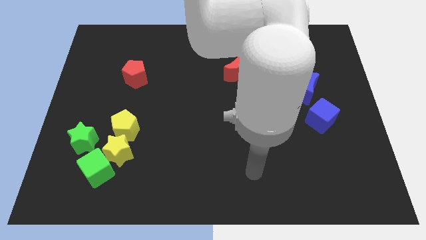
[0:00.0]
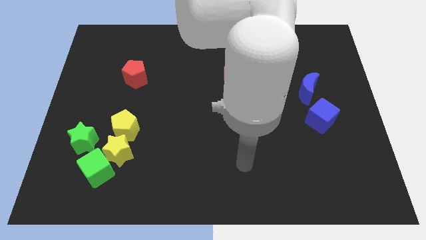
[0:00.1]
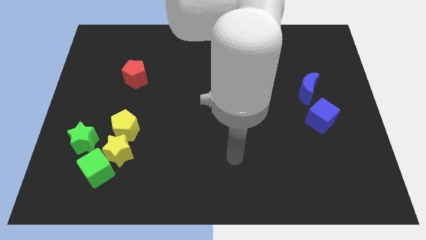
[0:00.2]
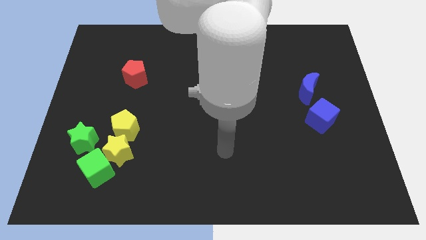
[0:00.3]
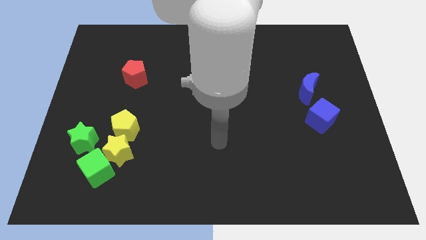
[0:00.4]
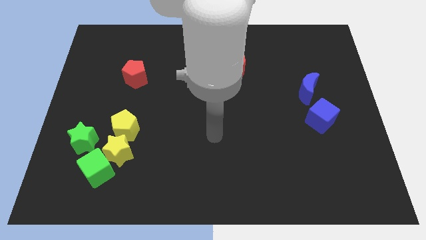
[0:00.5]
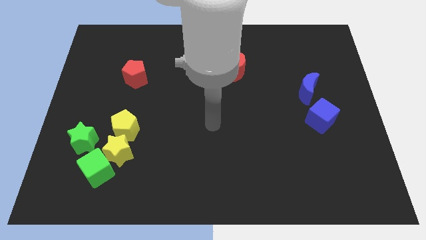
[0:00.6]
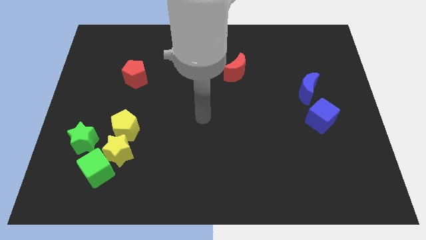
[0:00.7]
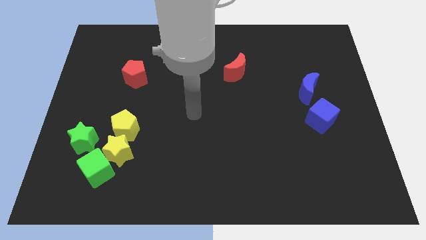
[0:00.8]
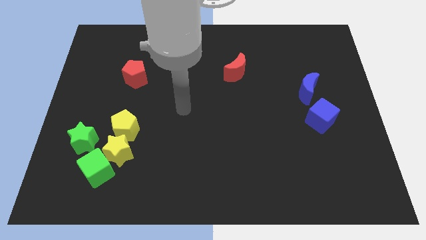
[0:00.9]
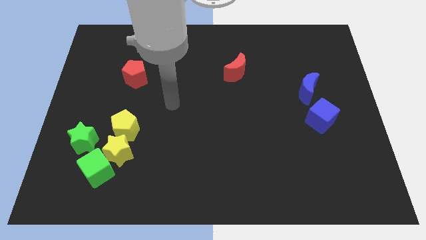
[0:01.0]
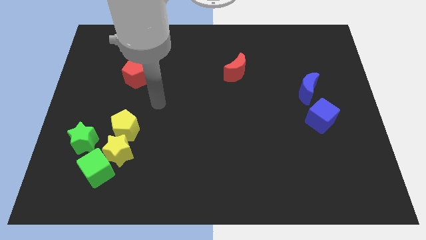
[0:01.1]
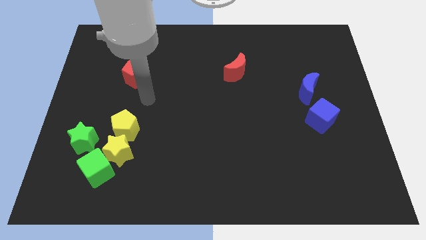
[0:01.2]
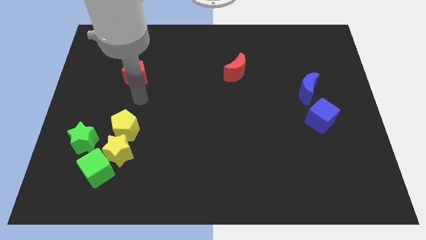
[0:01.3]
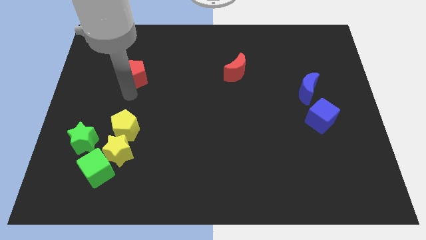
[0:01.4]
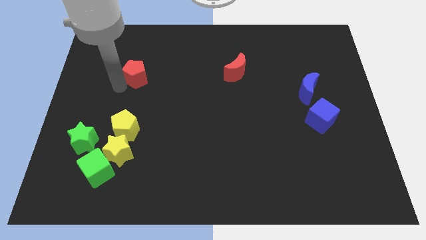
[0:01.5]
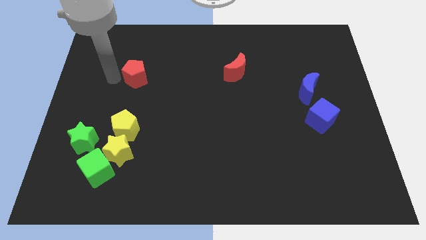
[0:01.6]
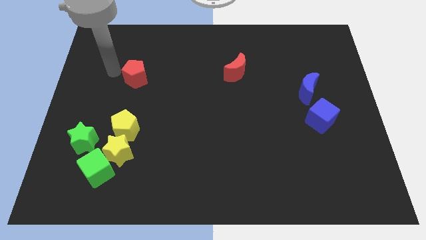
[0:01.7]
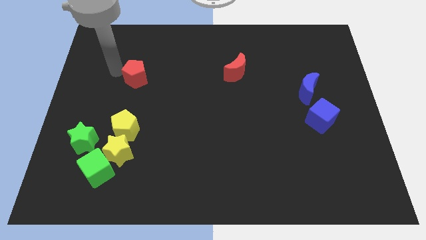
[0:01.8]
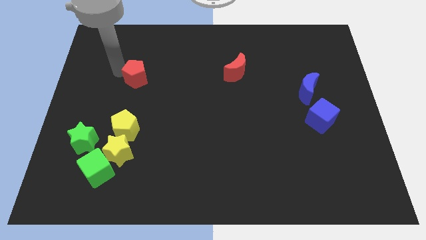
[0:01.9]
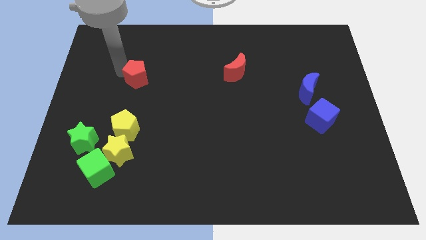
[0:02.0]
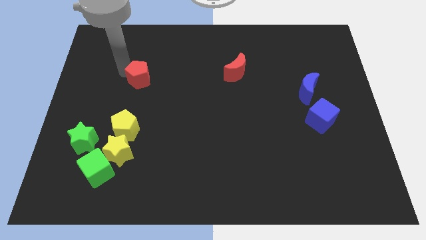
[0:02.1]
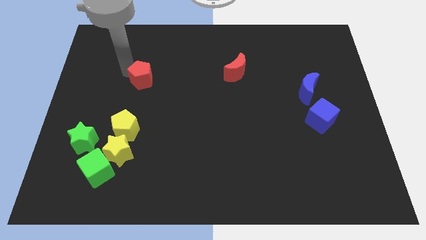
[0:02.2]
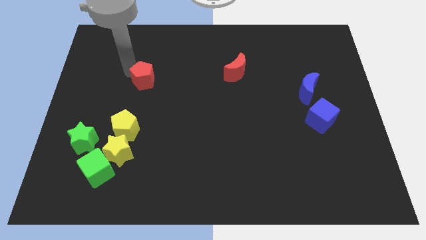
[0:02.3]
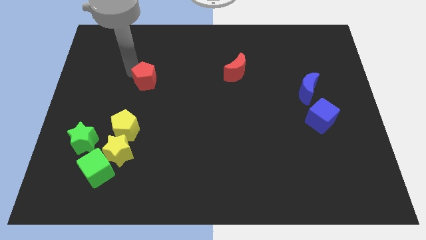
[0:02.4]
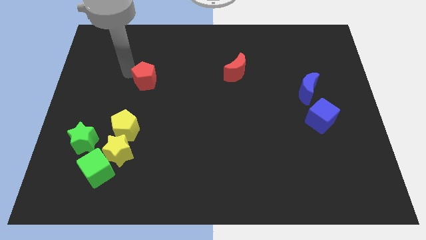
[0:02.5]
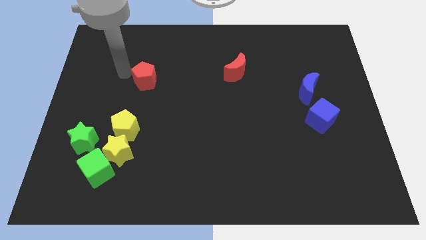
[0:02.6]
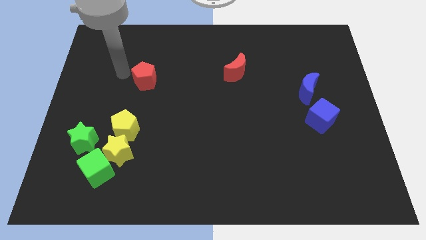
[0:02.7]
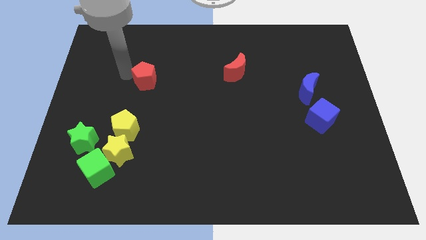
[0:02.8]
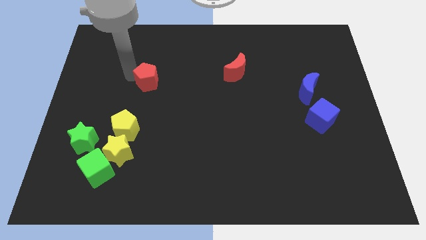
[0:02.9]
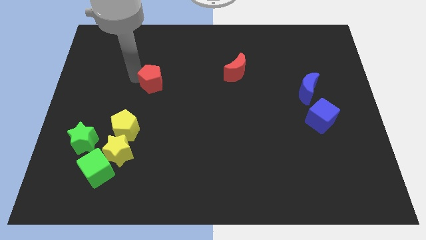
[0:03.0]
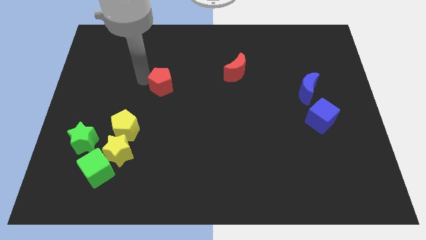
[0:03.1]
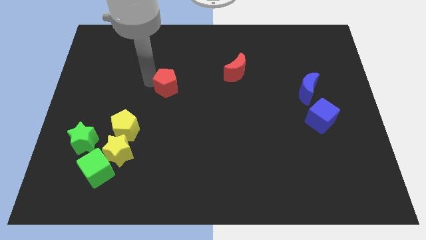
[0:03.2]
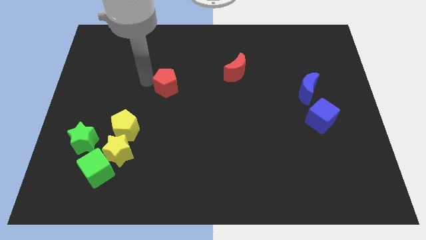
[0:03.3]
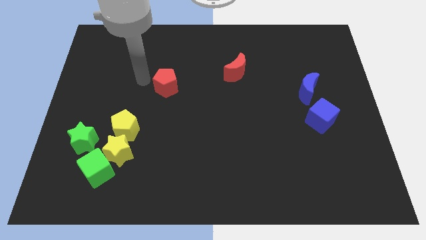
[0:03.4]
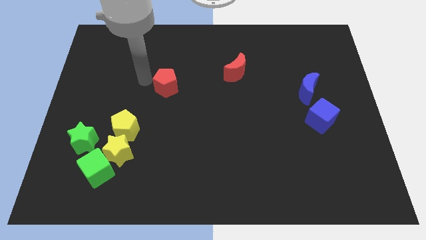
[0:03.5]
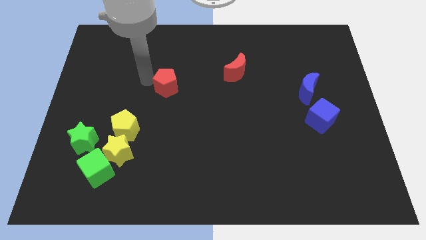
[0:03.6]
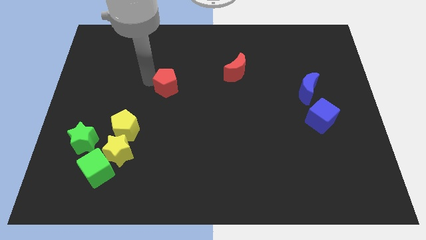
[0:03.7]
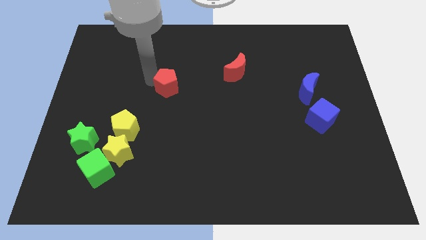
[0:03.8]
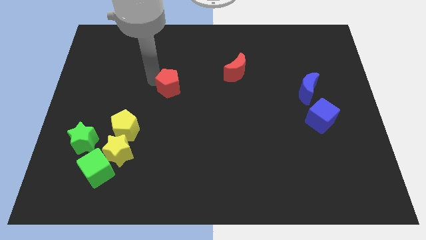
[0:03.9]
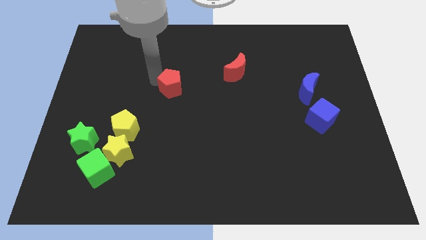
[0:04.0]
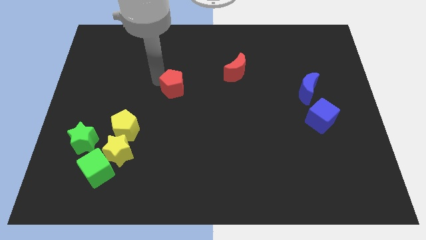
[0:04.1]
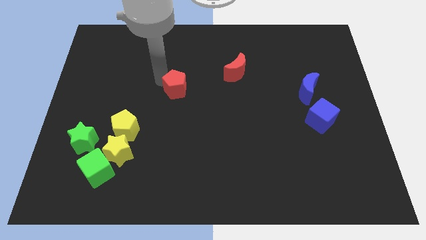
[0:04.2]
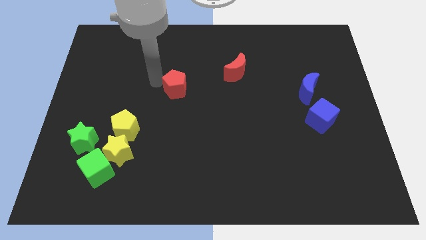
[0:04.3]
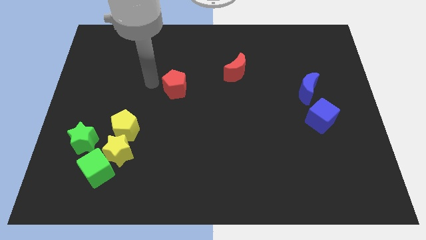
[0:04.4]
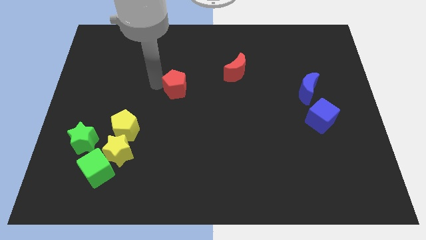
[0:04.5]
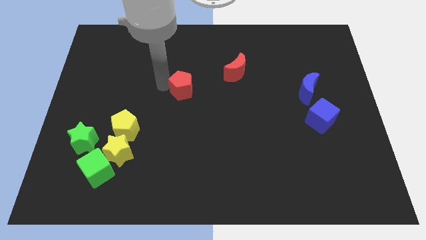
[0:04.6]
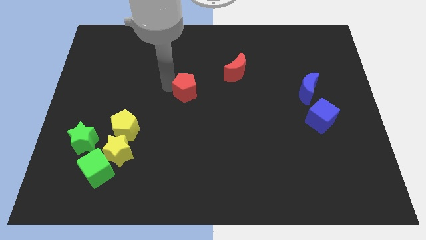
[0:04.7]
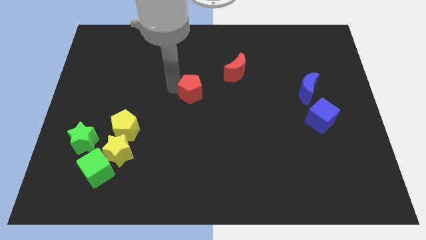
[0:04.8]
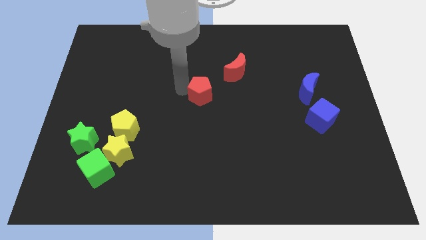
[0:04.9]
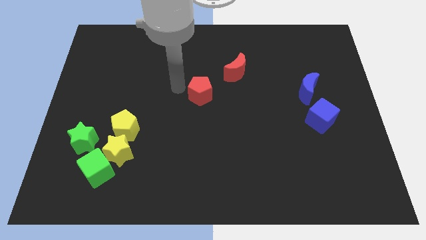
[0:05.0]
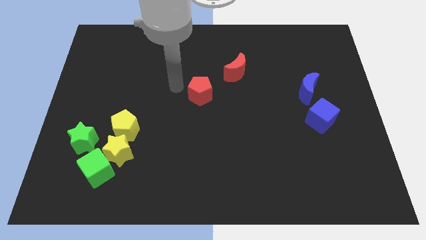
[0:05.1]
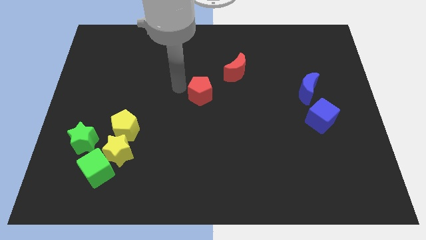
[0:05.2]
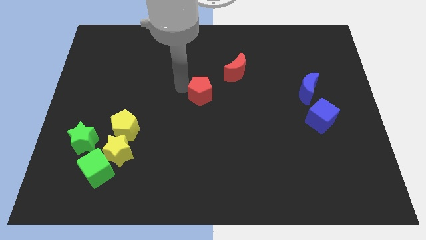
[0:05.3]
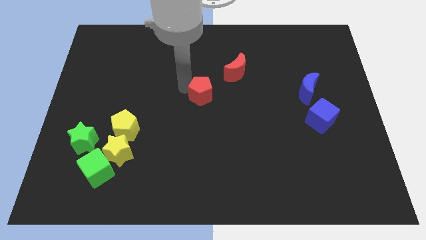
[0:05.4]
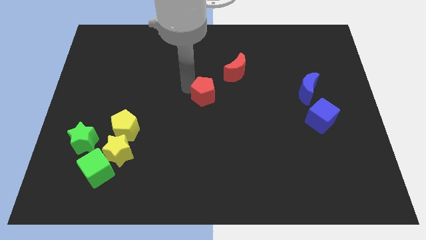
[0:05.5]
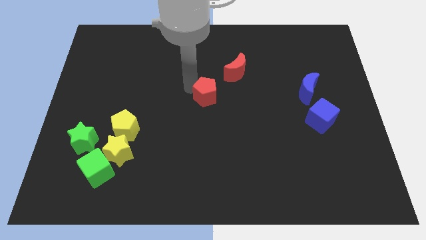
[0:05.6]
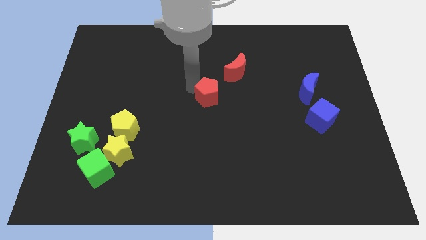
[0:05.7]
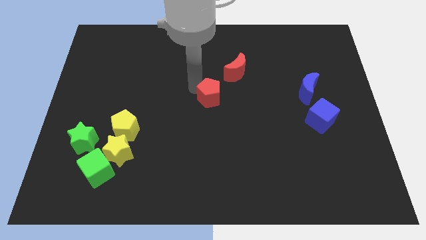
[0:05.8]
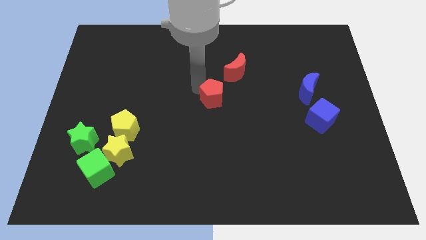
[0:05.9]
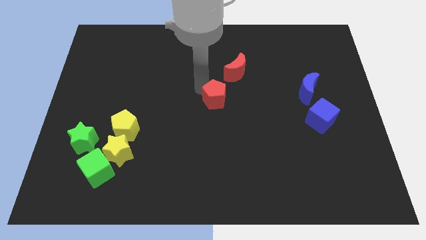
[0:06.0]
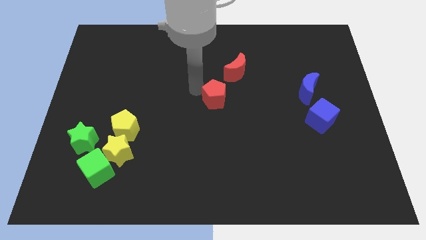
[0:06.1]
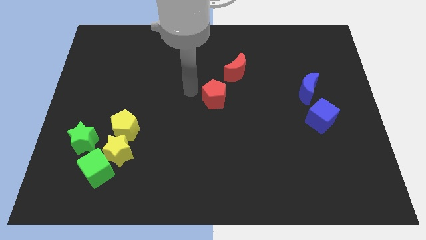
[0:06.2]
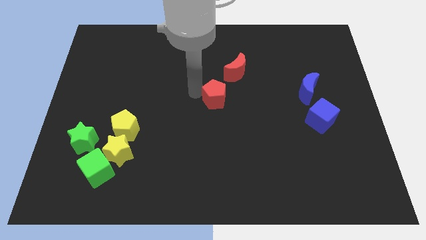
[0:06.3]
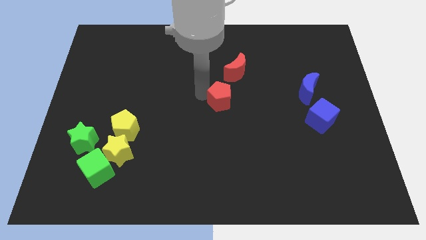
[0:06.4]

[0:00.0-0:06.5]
move the red pentagon to the bottom side of the red moon
